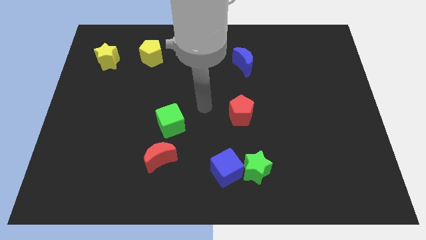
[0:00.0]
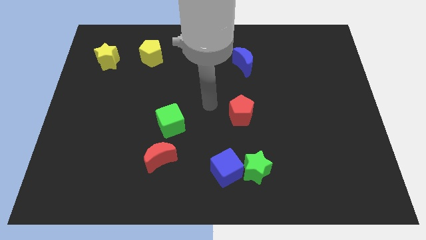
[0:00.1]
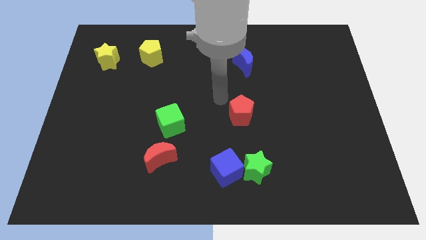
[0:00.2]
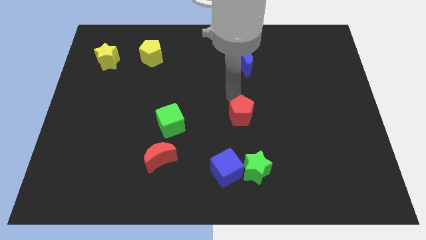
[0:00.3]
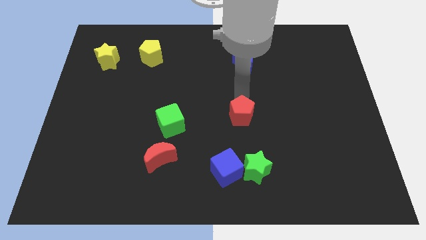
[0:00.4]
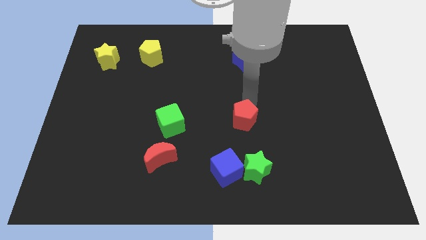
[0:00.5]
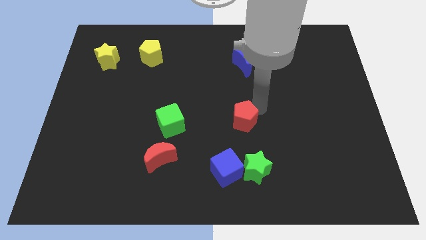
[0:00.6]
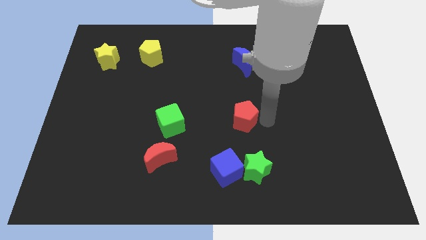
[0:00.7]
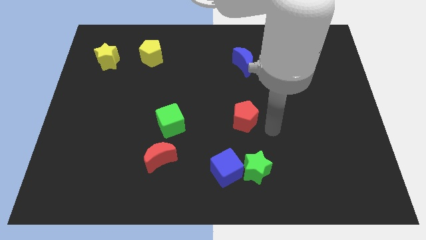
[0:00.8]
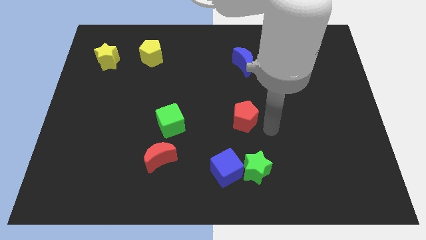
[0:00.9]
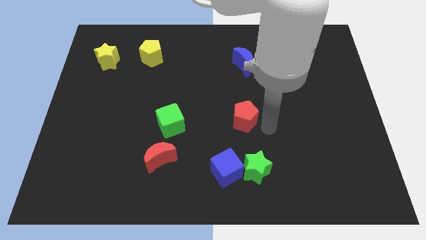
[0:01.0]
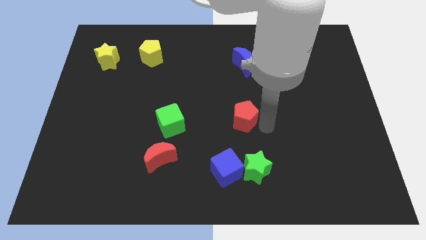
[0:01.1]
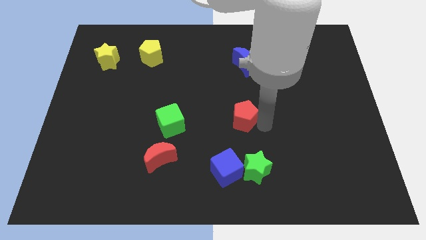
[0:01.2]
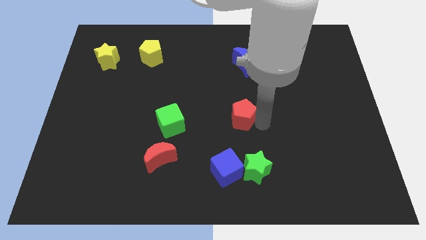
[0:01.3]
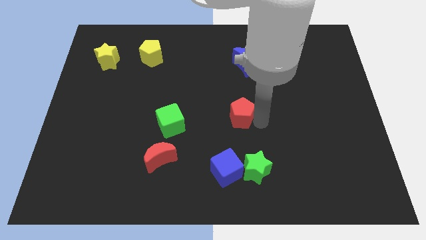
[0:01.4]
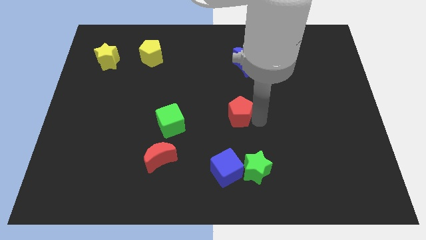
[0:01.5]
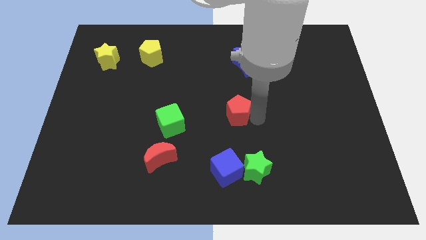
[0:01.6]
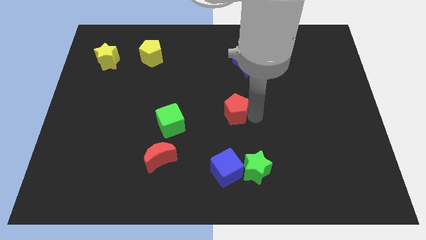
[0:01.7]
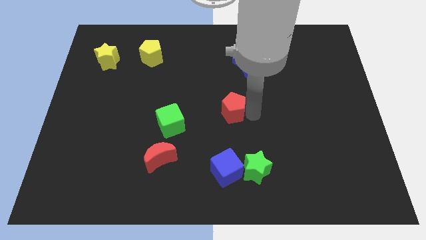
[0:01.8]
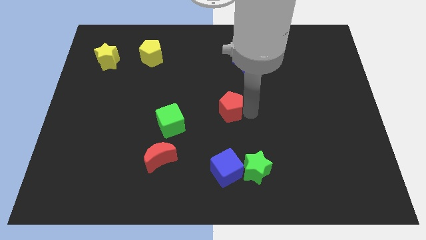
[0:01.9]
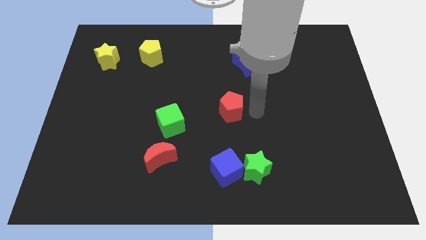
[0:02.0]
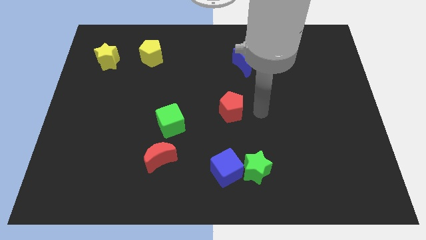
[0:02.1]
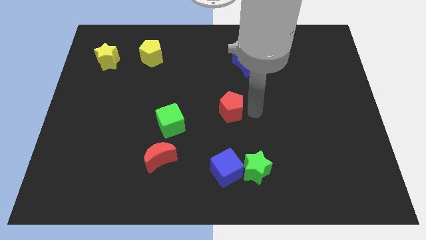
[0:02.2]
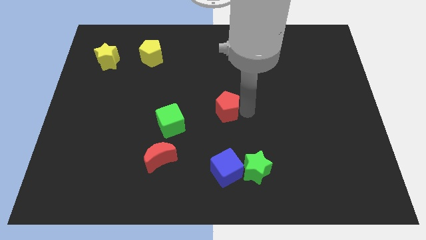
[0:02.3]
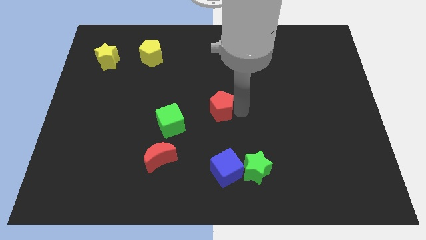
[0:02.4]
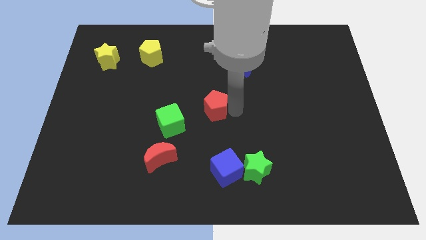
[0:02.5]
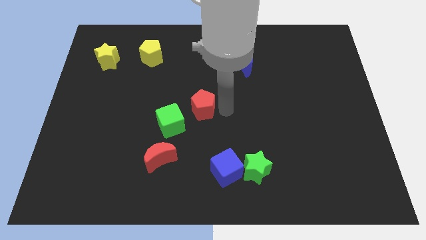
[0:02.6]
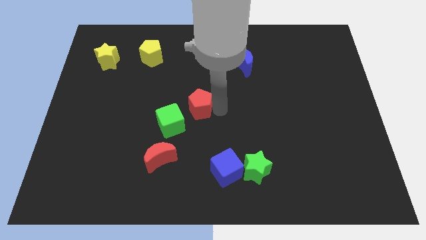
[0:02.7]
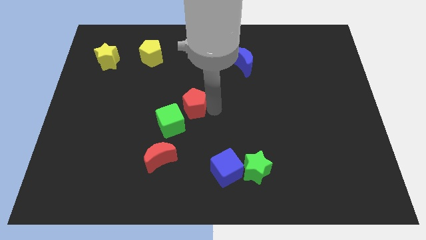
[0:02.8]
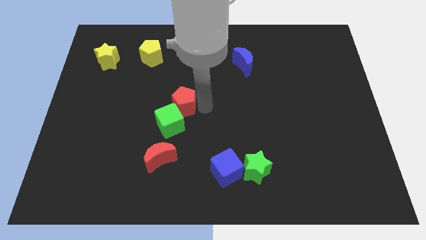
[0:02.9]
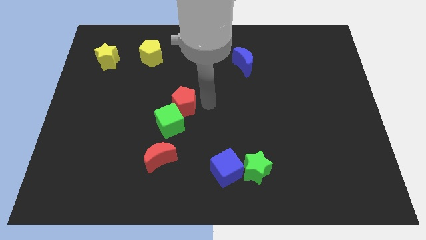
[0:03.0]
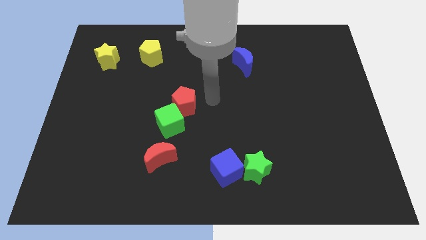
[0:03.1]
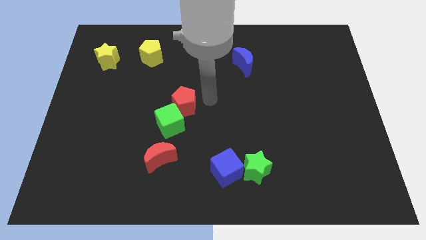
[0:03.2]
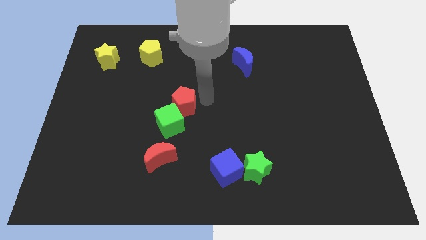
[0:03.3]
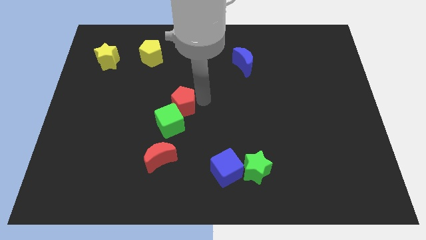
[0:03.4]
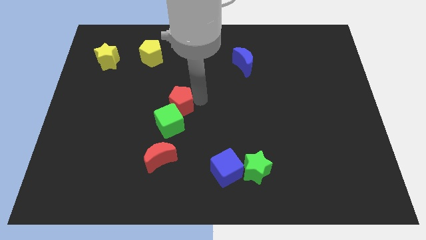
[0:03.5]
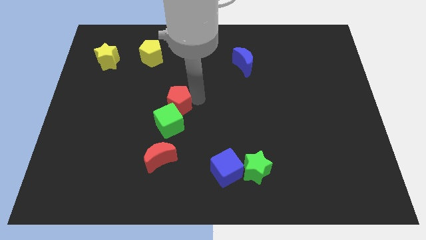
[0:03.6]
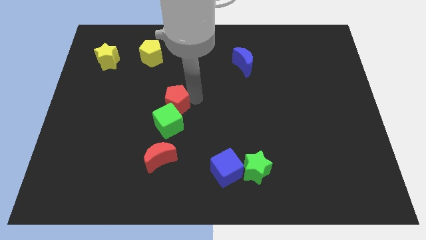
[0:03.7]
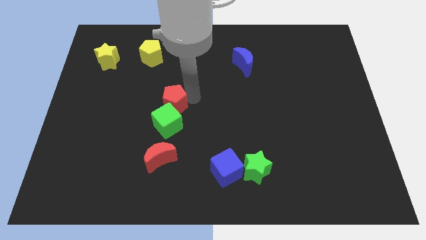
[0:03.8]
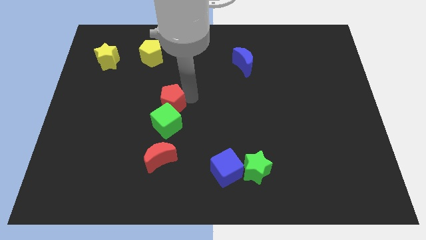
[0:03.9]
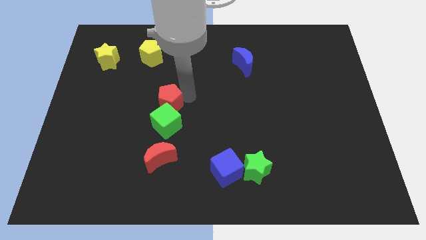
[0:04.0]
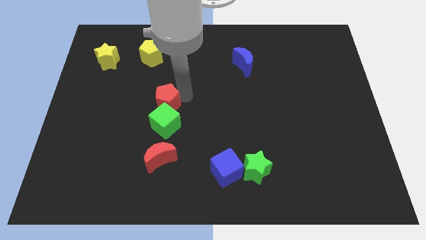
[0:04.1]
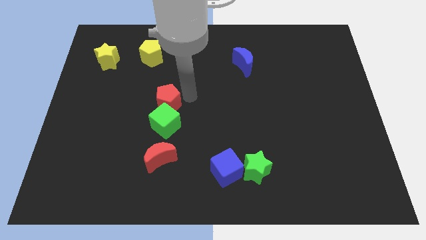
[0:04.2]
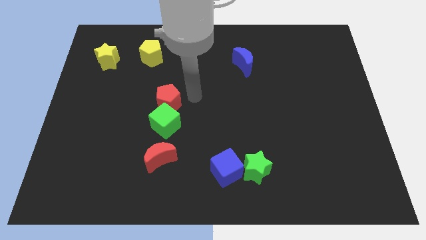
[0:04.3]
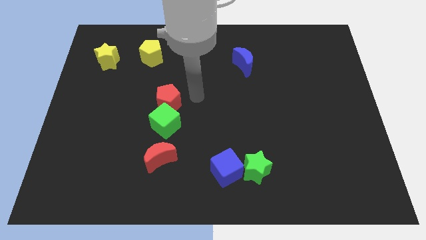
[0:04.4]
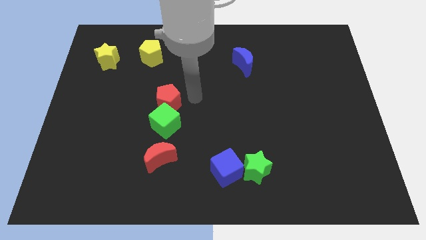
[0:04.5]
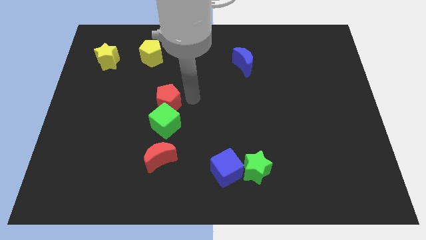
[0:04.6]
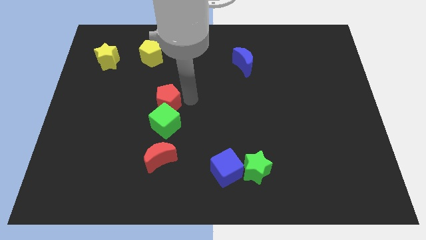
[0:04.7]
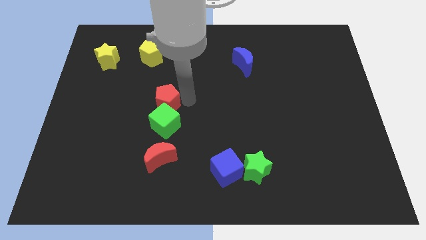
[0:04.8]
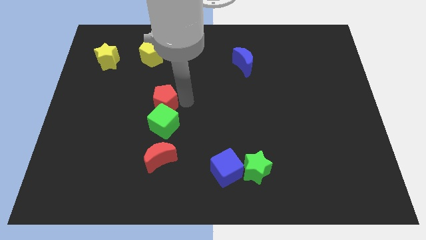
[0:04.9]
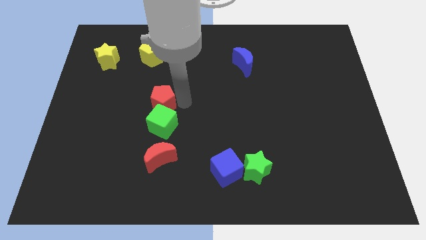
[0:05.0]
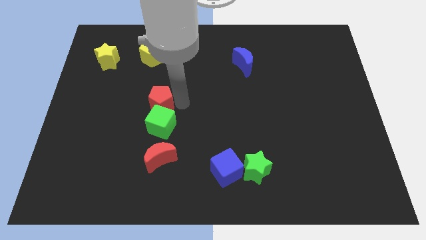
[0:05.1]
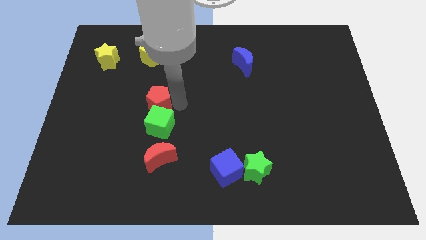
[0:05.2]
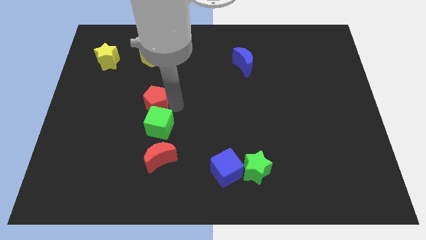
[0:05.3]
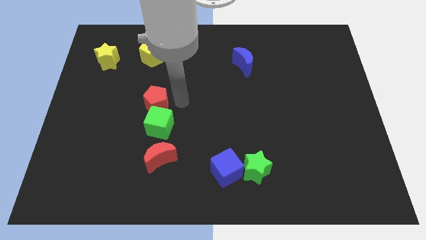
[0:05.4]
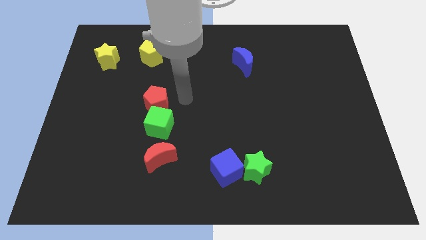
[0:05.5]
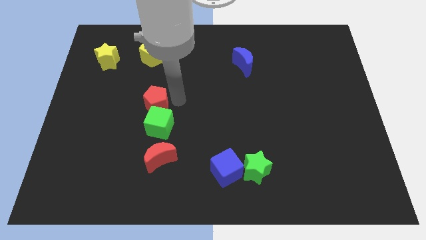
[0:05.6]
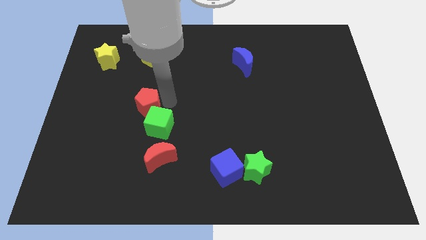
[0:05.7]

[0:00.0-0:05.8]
move the red pentagon to the left

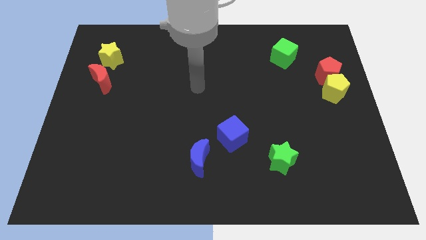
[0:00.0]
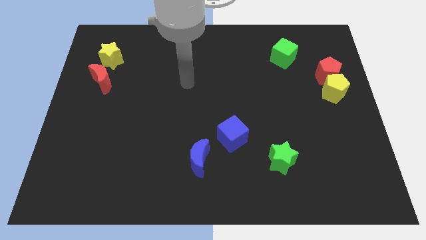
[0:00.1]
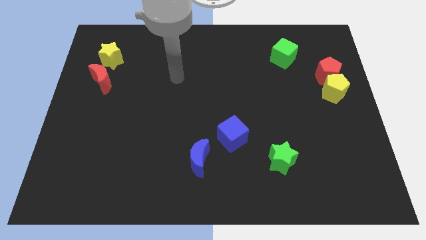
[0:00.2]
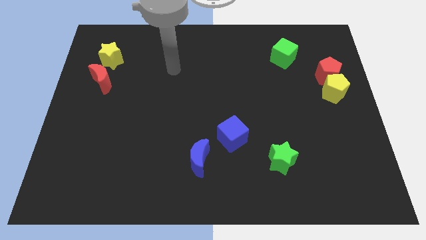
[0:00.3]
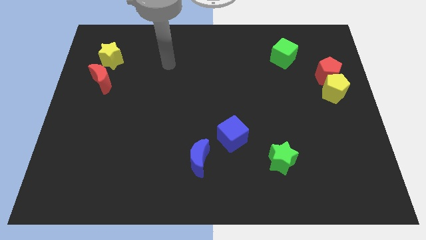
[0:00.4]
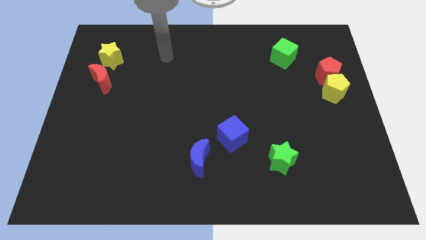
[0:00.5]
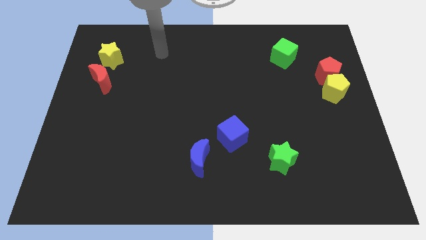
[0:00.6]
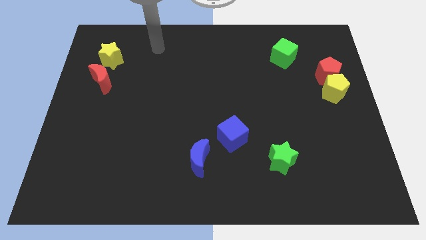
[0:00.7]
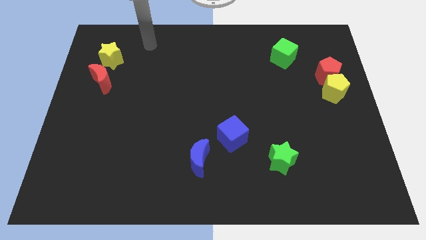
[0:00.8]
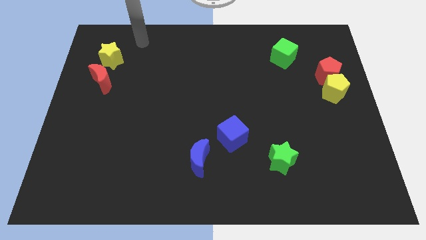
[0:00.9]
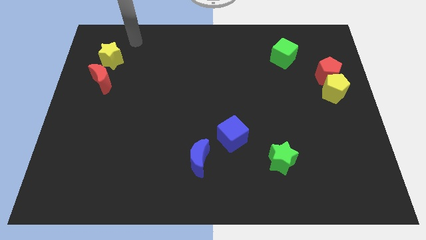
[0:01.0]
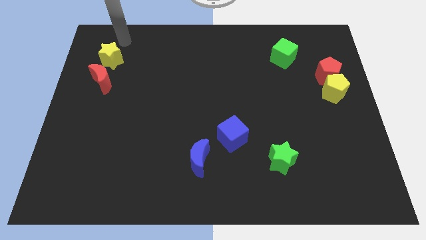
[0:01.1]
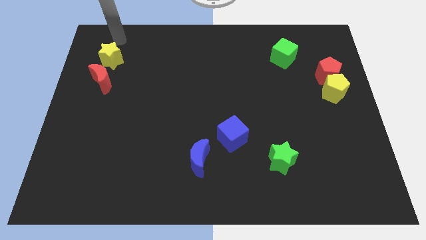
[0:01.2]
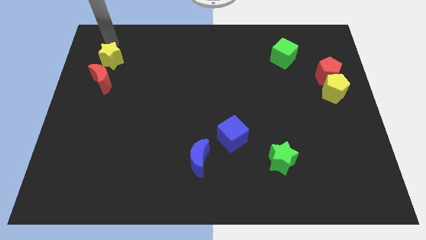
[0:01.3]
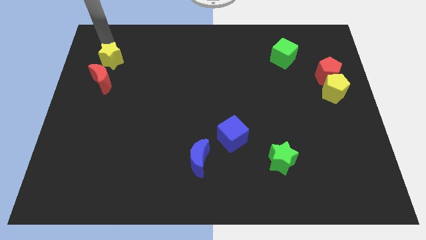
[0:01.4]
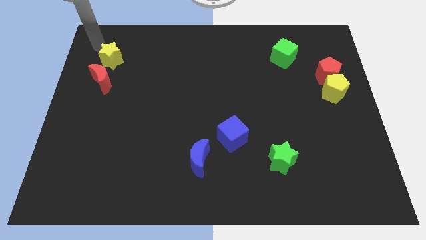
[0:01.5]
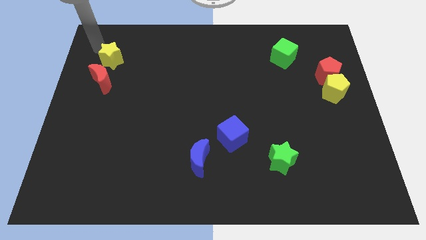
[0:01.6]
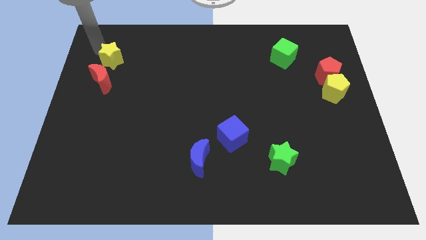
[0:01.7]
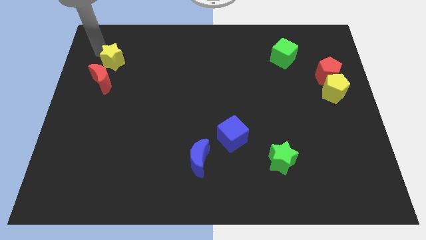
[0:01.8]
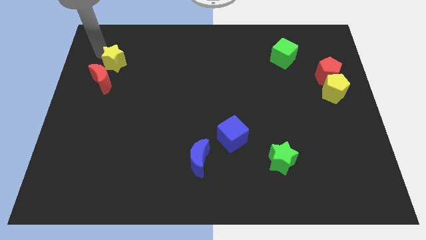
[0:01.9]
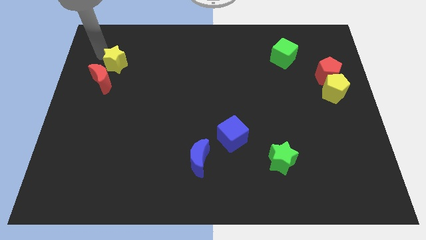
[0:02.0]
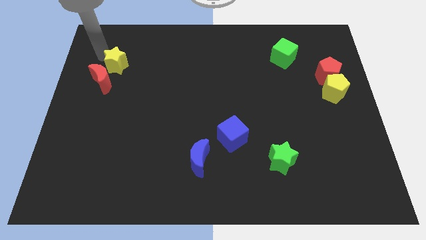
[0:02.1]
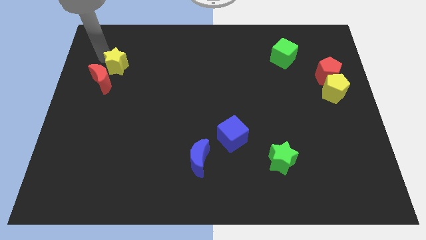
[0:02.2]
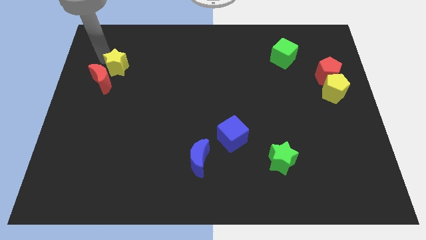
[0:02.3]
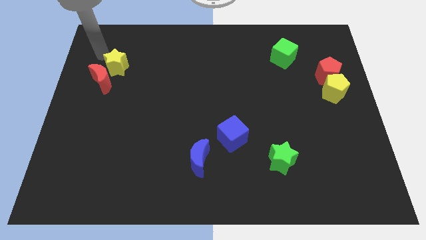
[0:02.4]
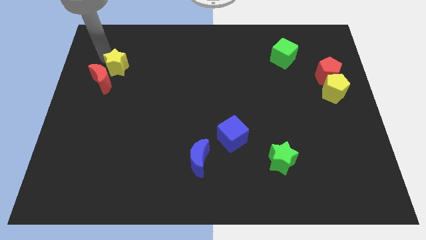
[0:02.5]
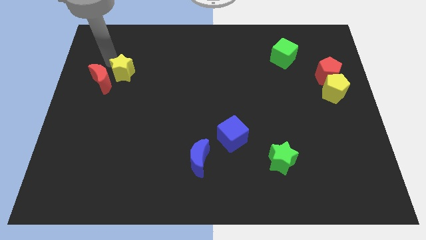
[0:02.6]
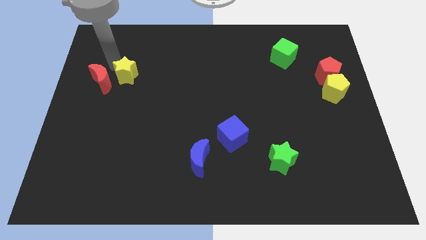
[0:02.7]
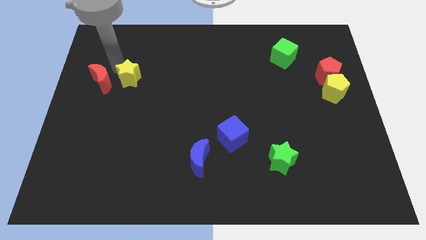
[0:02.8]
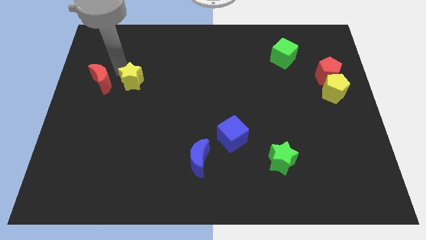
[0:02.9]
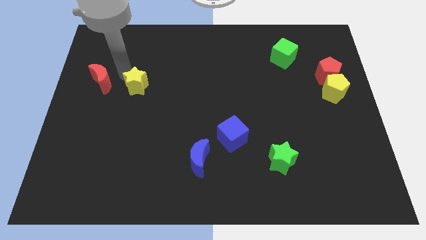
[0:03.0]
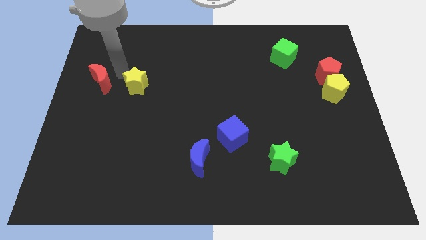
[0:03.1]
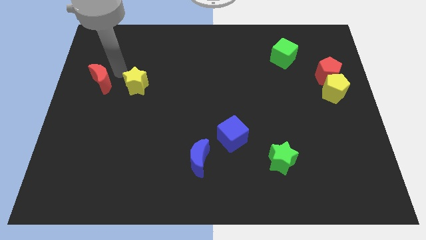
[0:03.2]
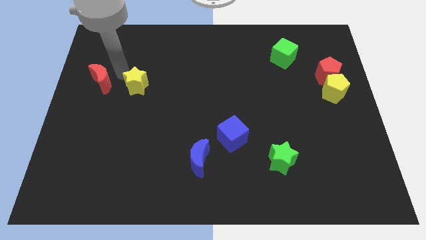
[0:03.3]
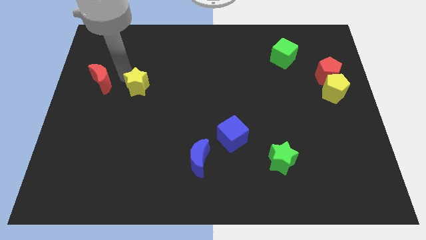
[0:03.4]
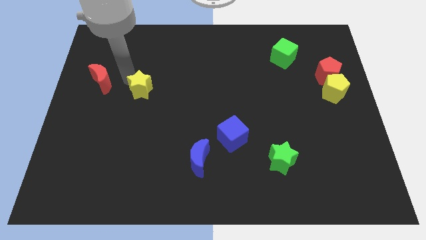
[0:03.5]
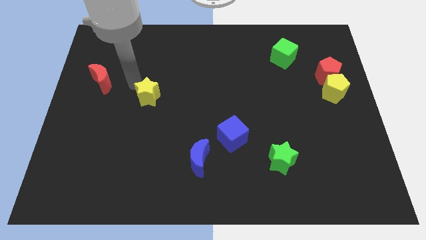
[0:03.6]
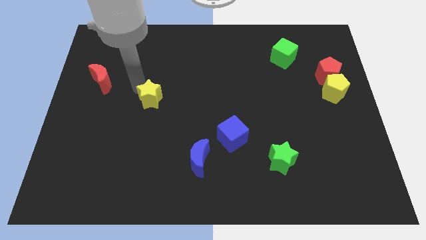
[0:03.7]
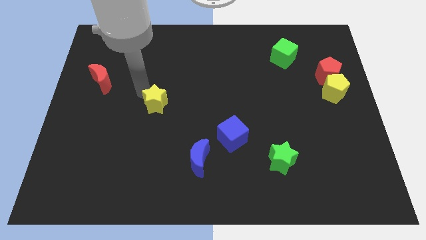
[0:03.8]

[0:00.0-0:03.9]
move the yellow star diagonally downwards and right
